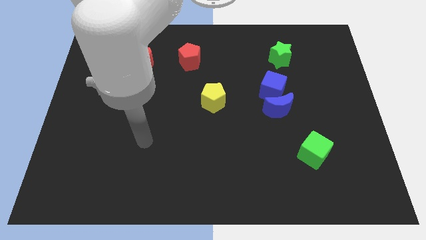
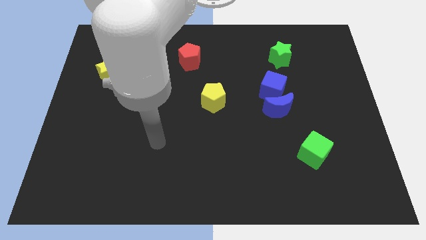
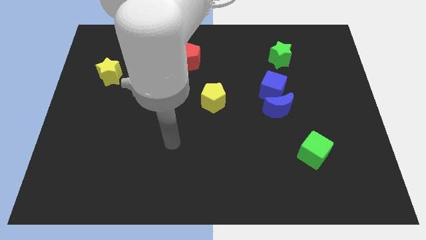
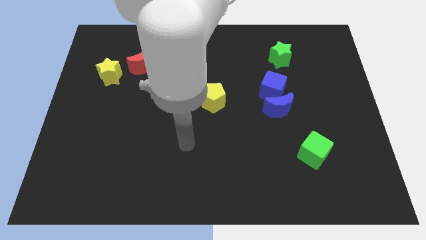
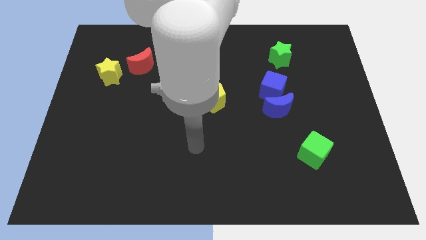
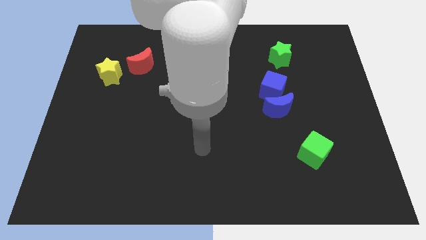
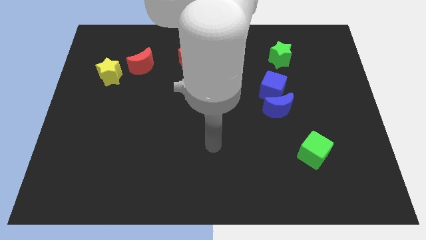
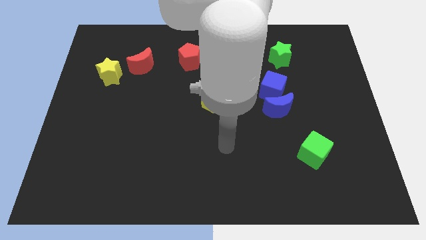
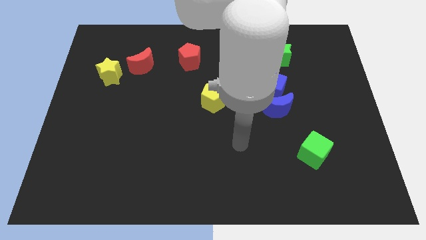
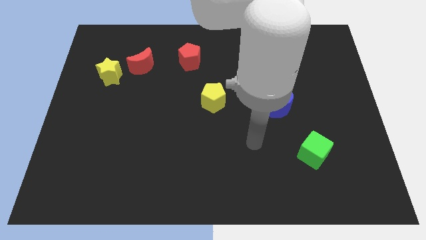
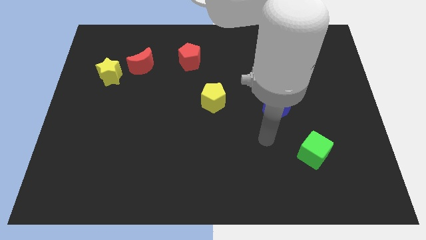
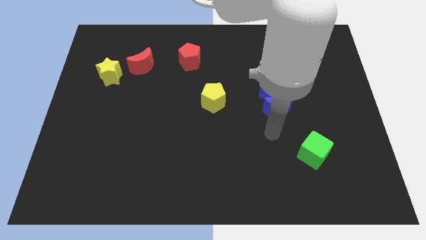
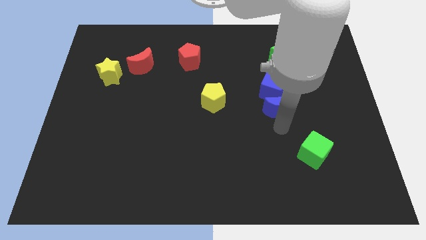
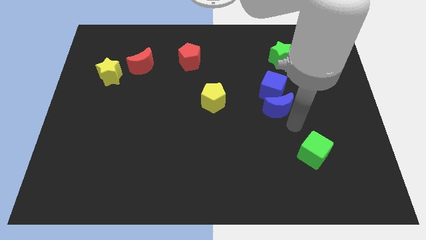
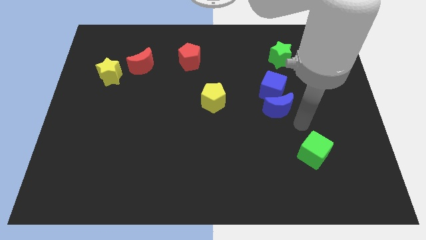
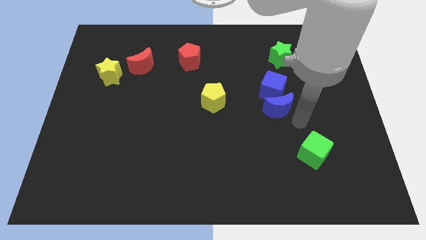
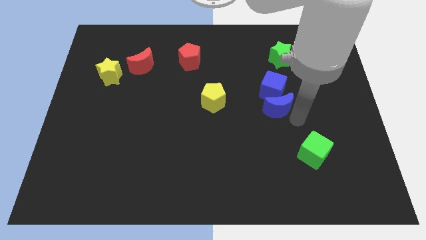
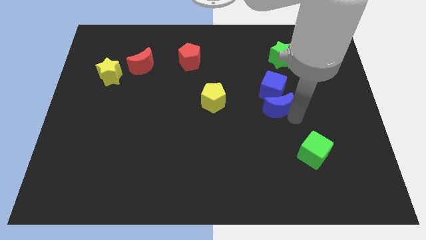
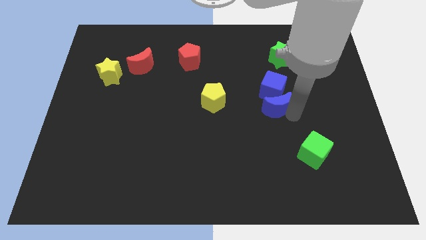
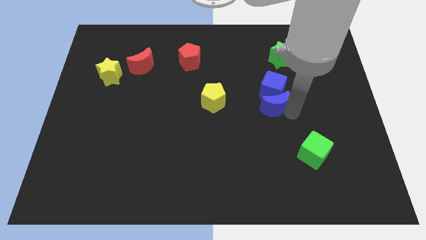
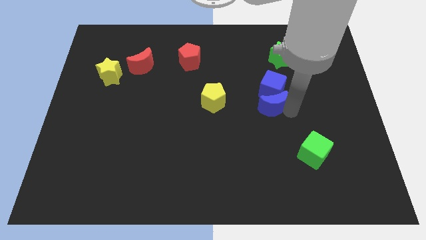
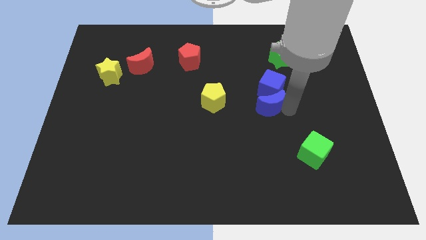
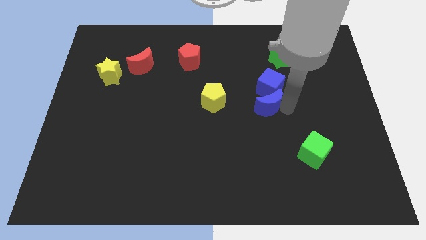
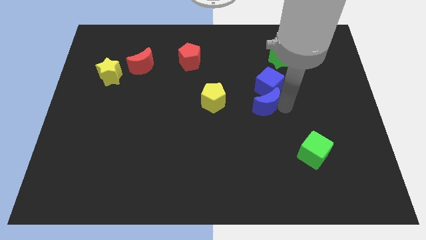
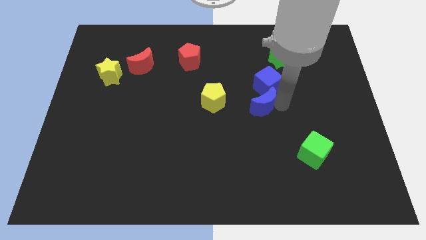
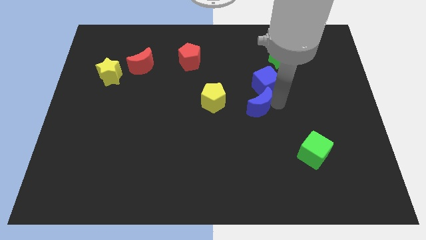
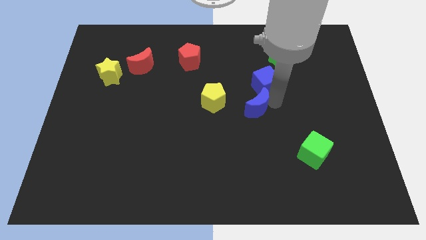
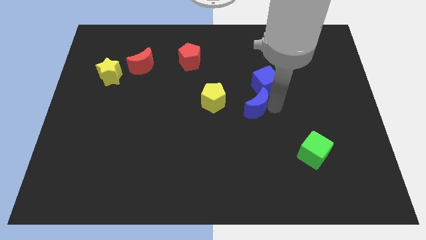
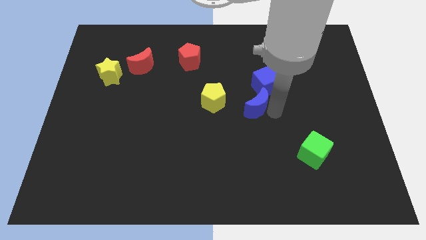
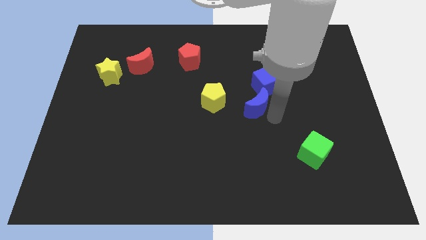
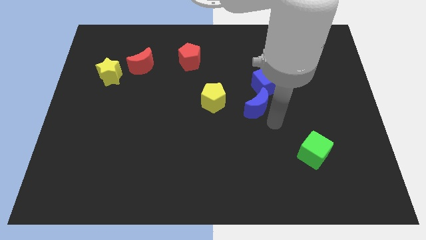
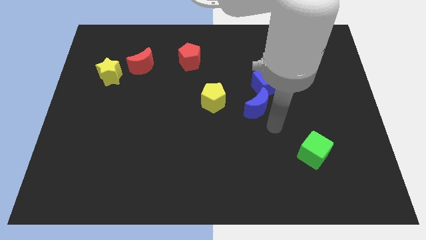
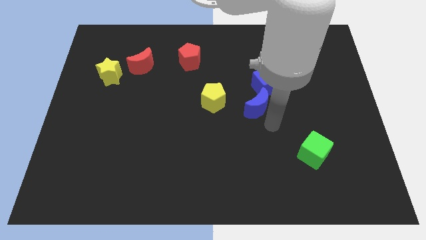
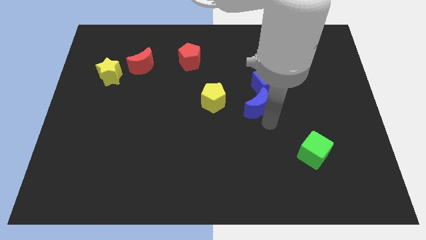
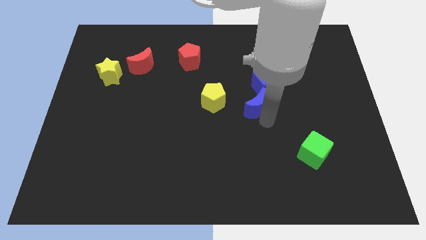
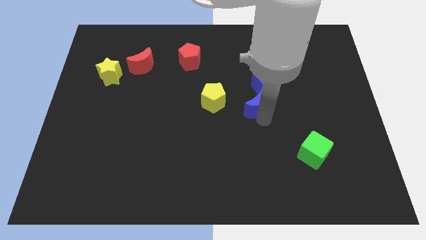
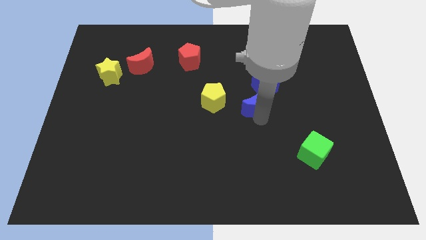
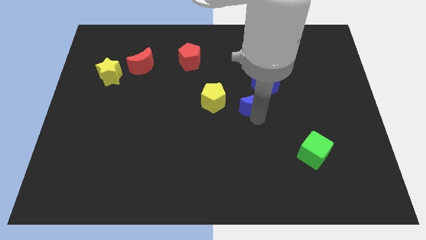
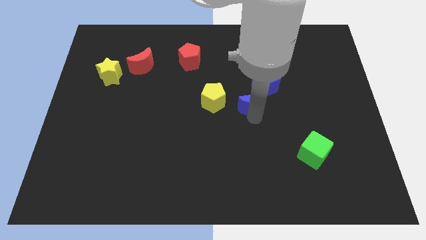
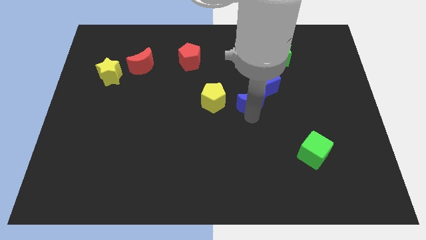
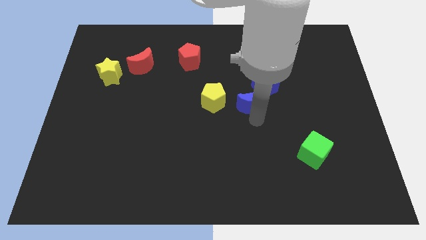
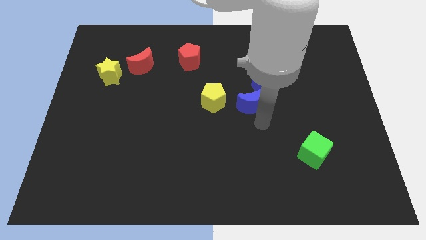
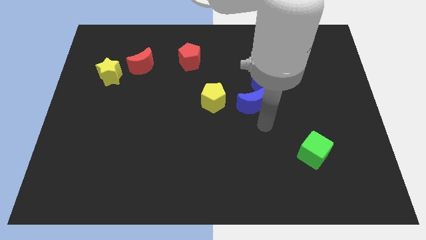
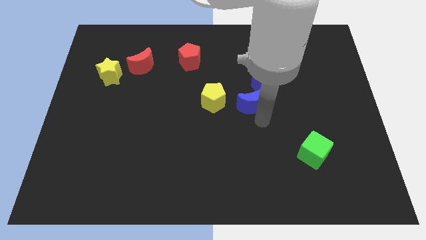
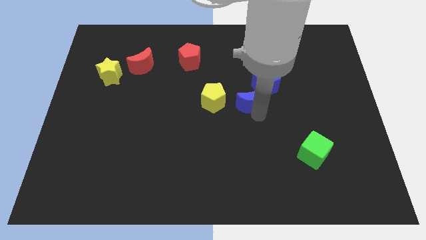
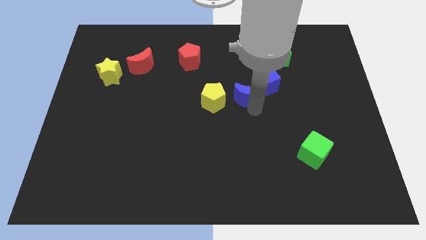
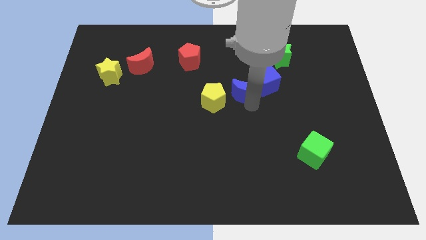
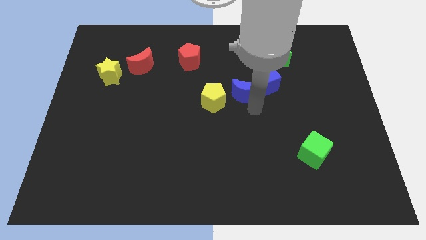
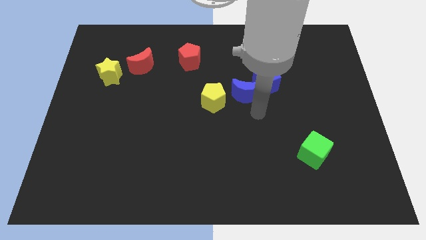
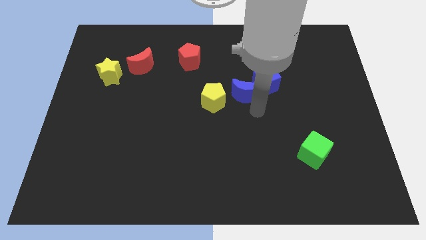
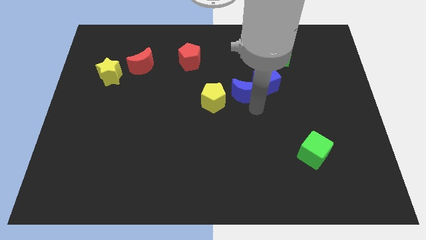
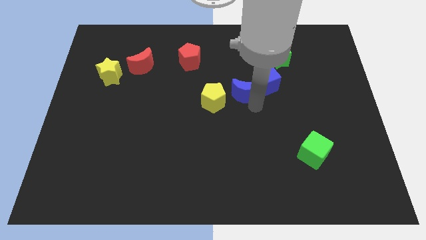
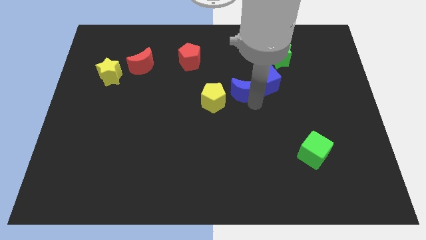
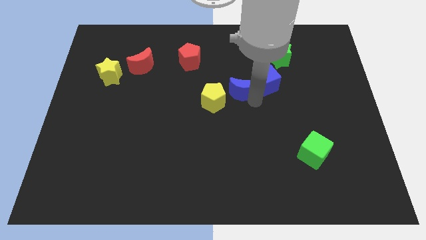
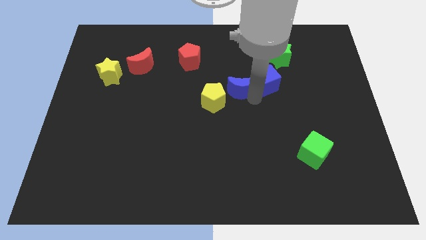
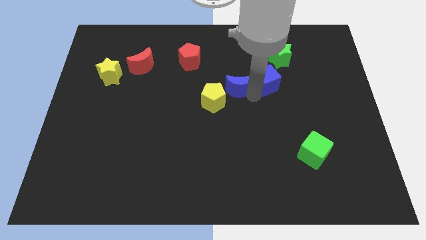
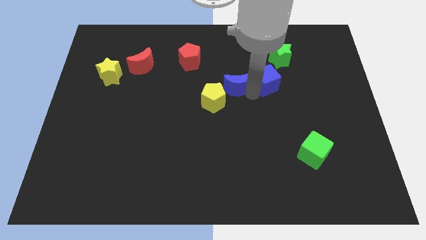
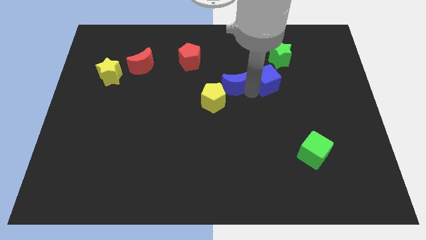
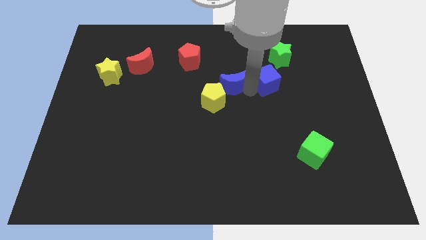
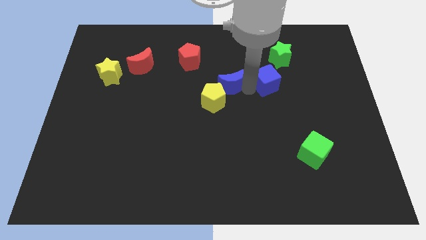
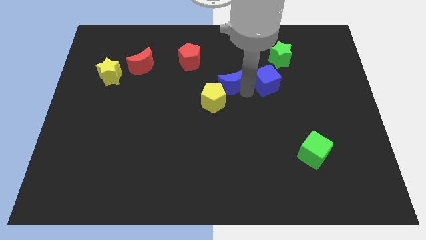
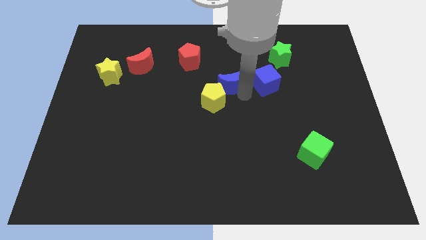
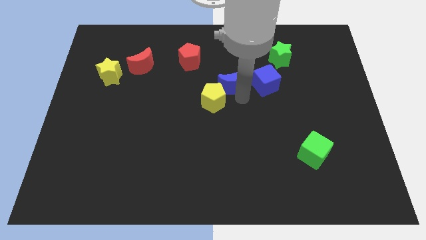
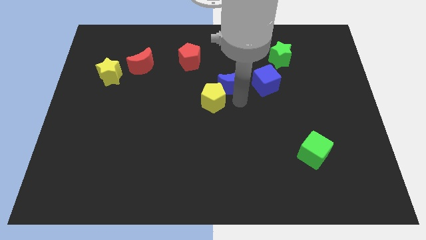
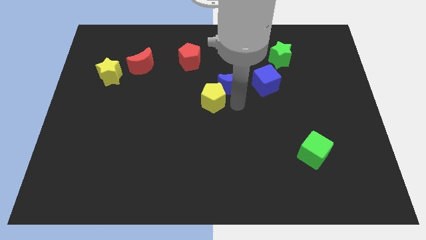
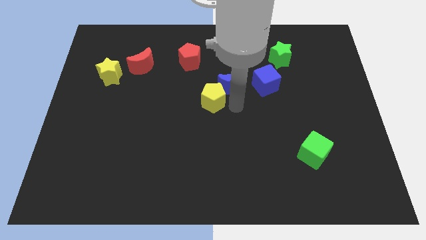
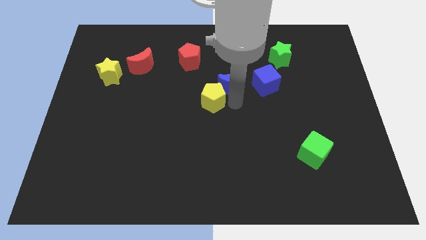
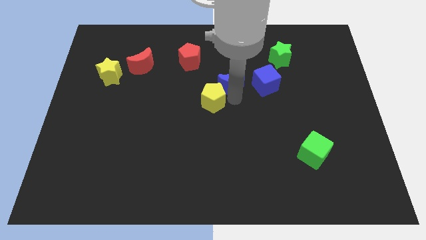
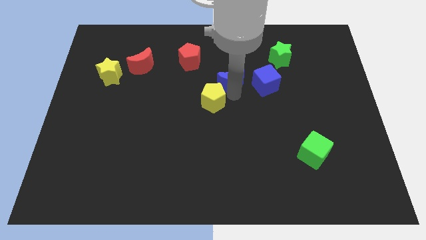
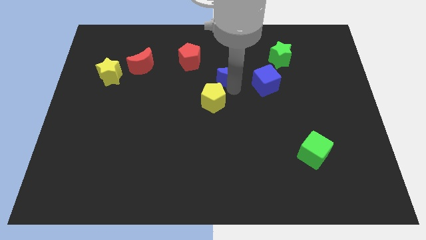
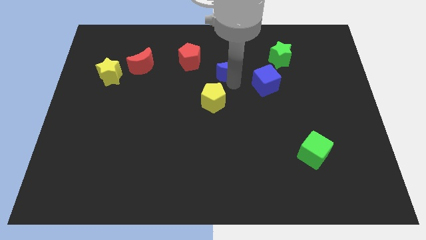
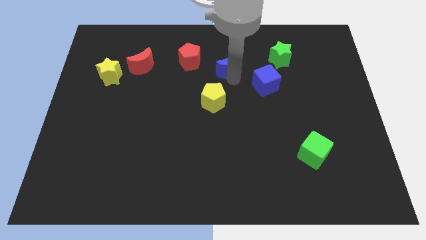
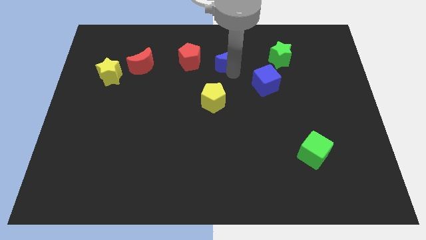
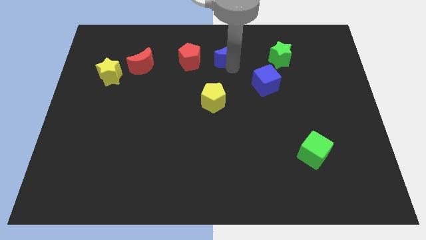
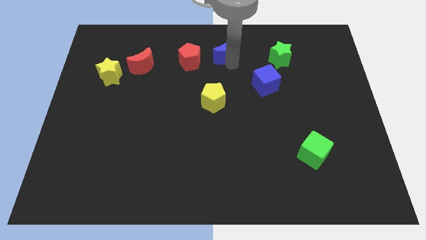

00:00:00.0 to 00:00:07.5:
put the blue moon to the top
